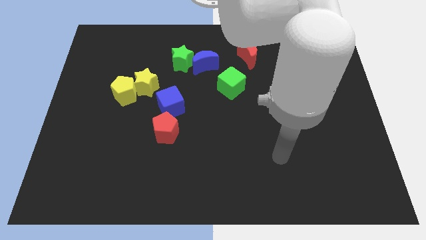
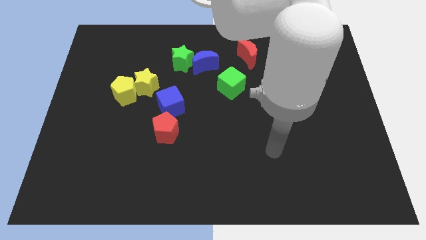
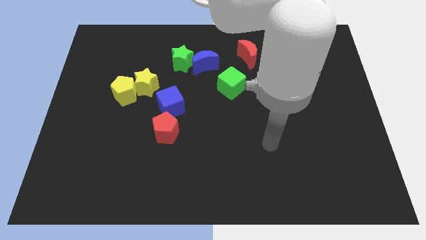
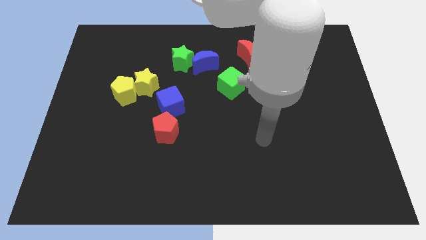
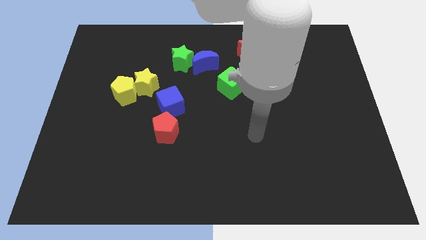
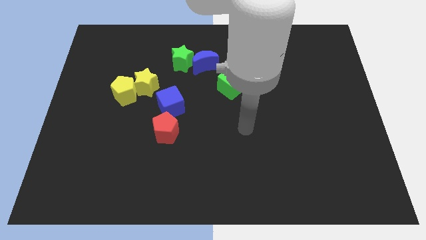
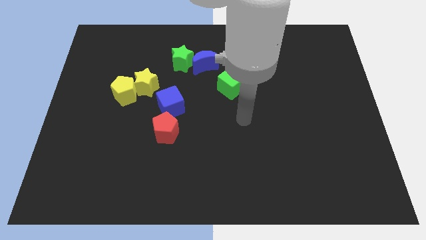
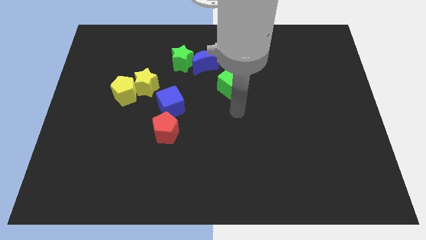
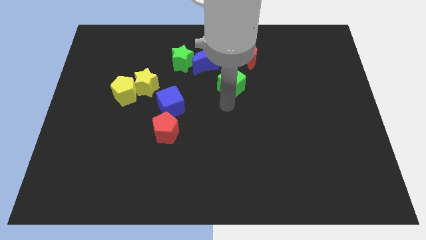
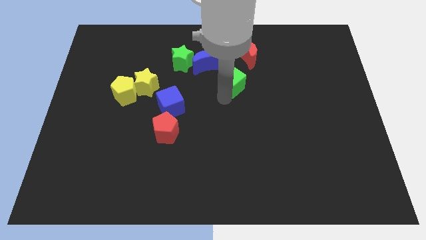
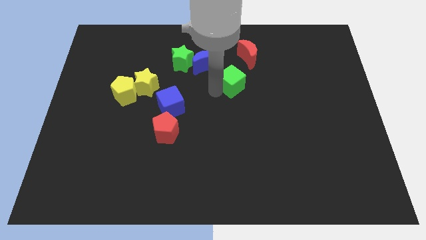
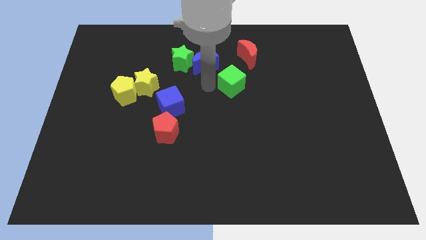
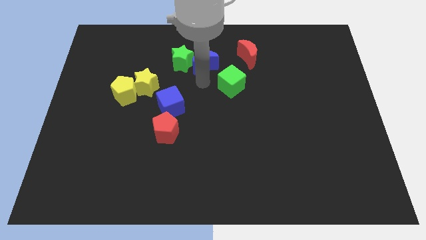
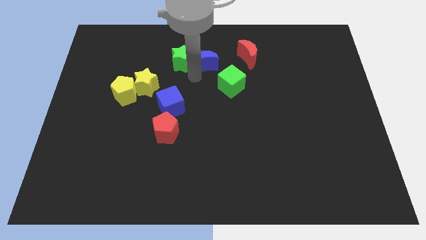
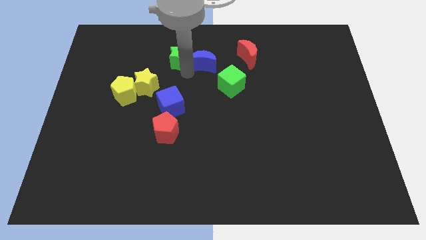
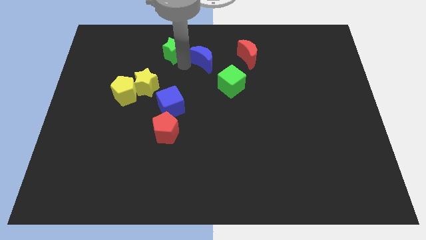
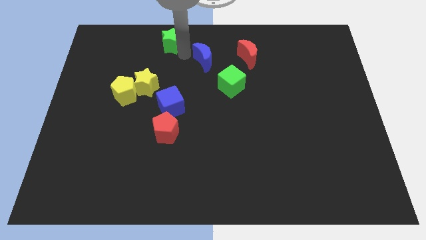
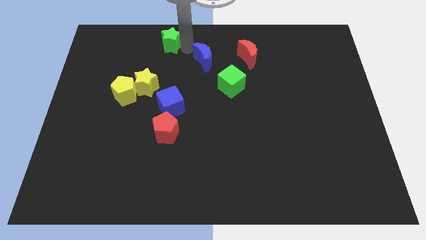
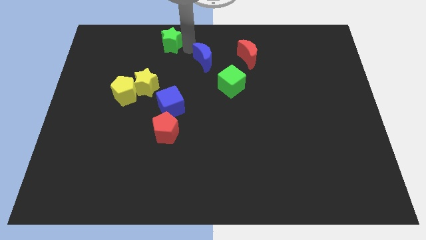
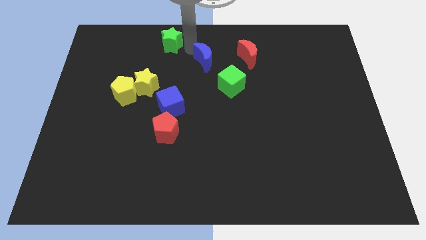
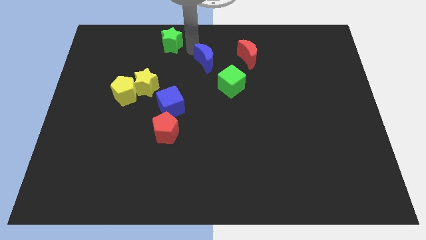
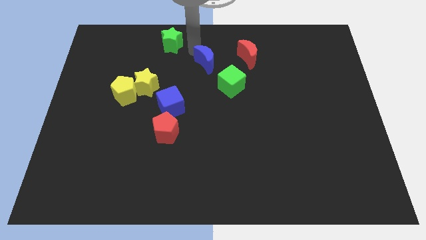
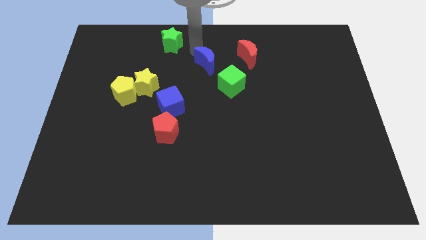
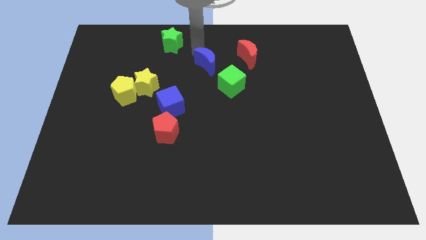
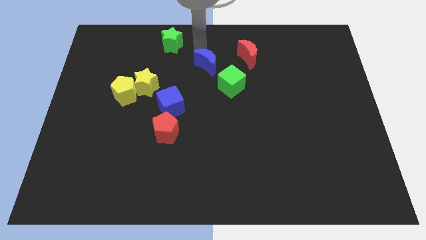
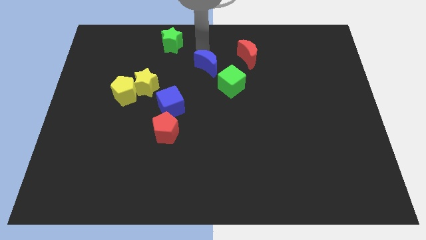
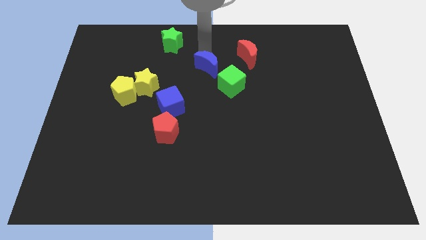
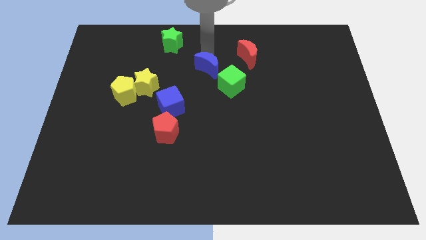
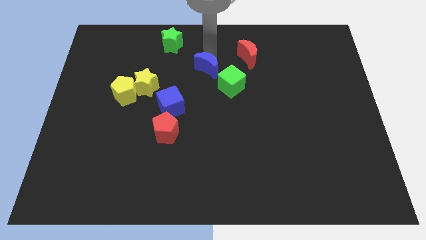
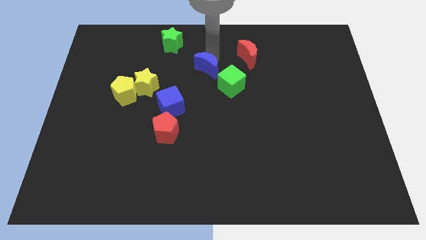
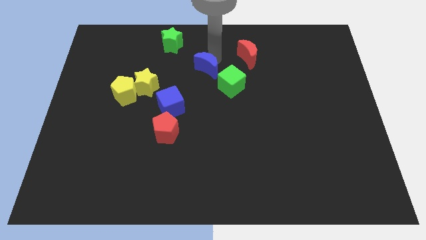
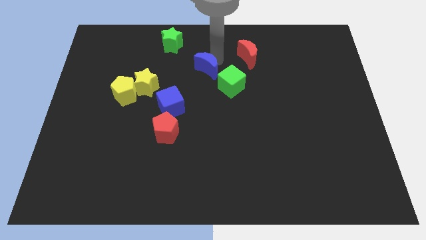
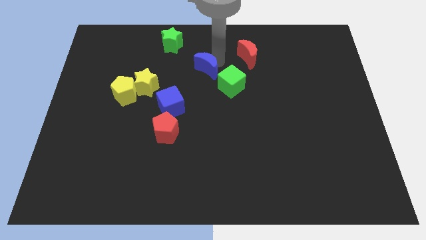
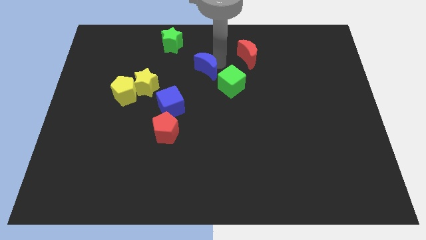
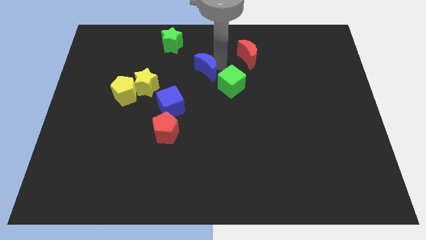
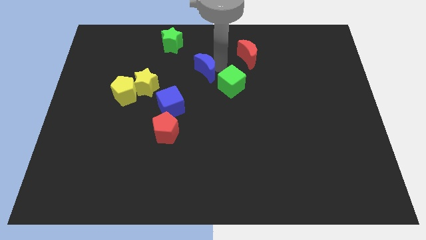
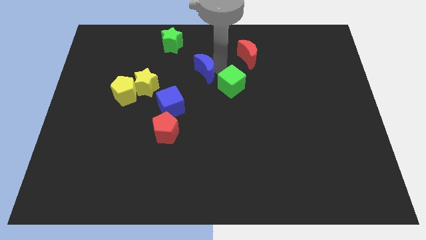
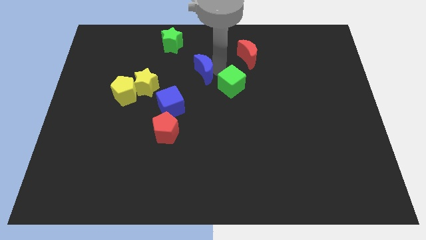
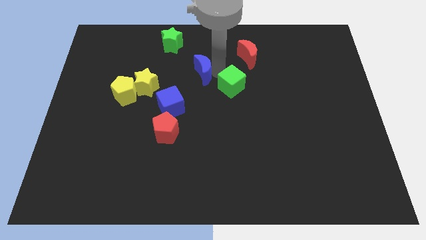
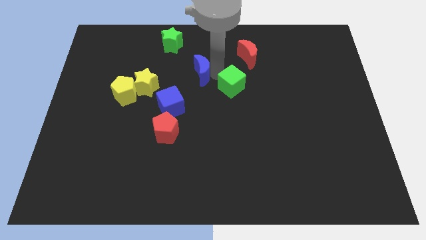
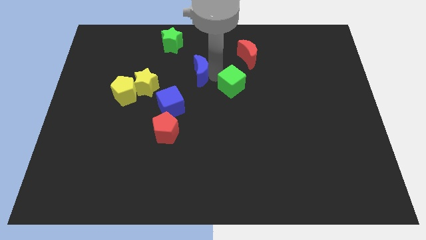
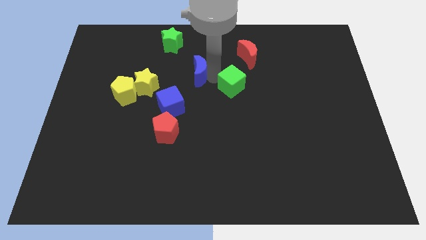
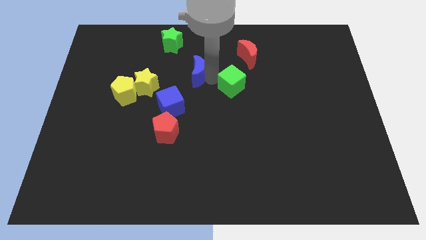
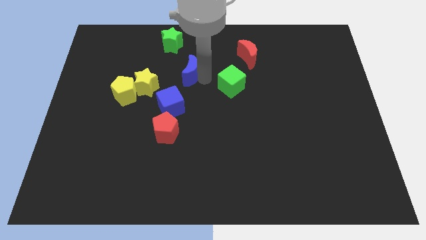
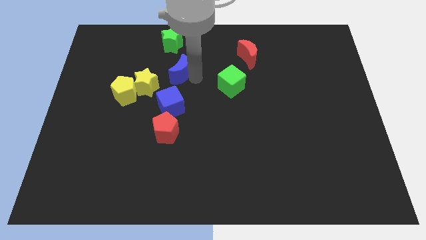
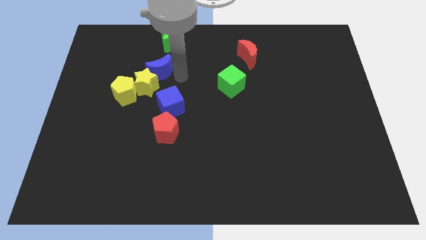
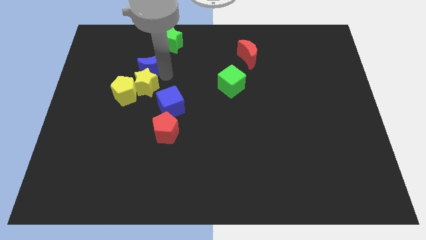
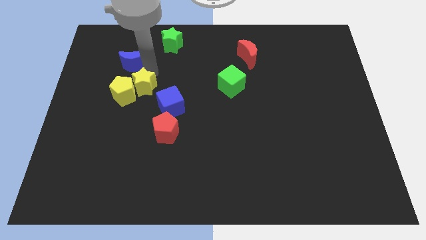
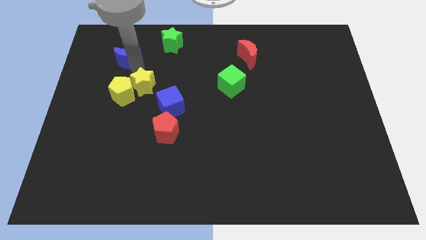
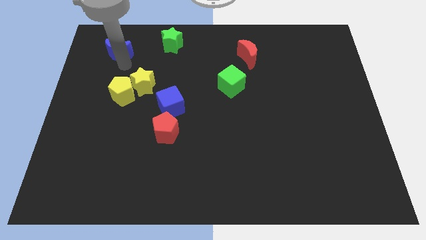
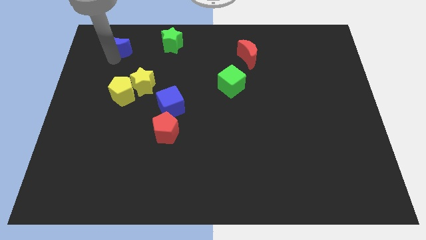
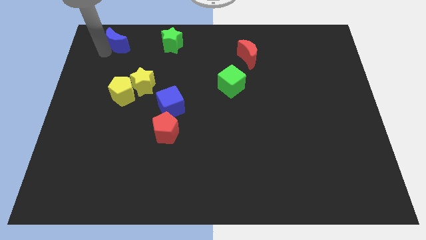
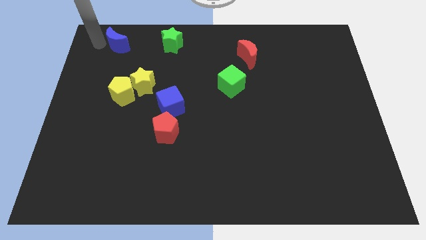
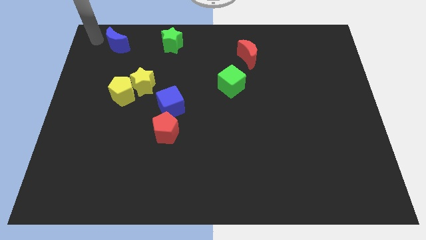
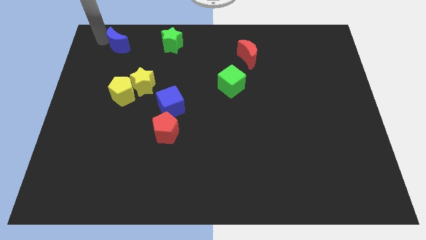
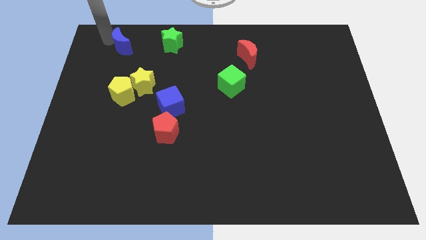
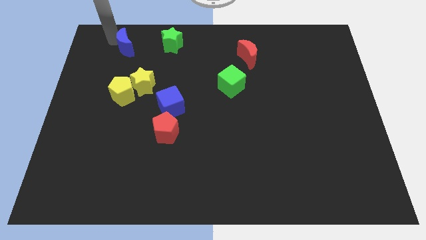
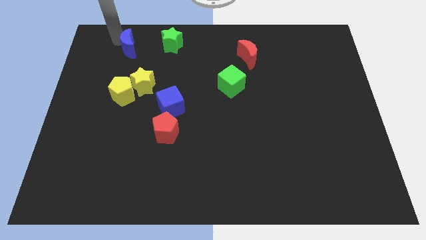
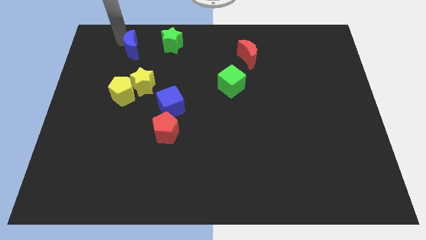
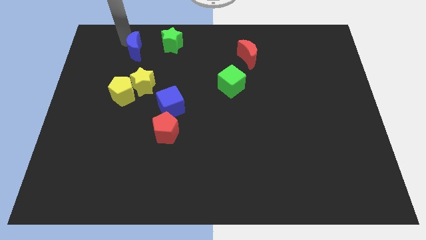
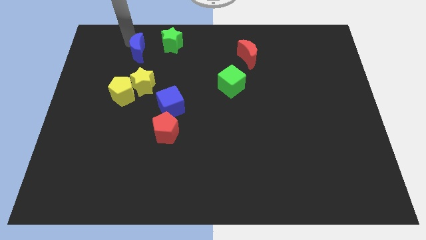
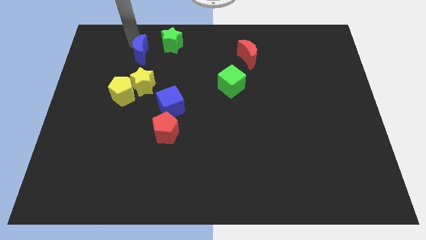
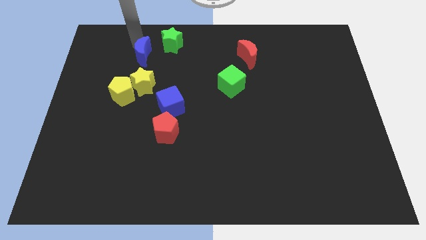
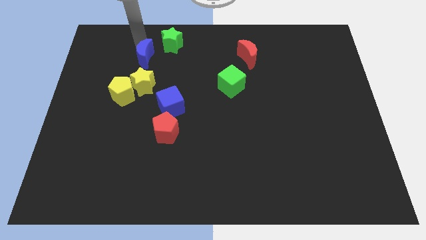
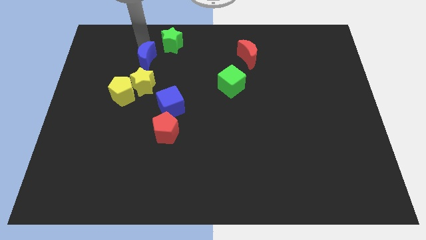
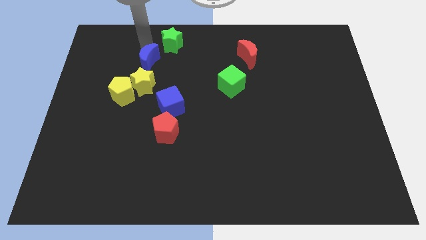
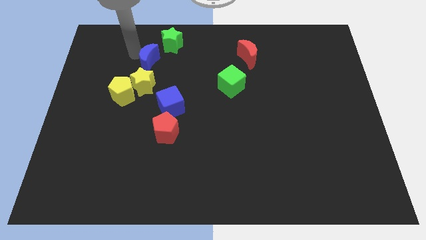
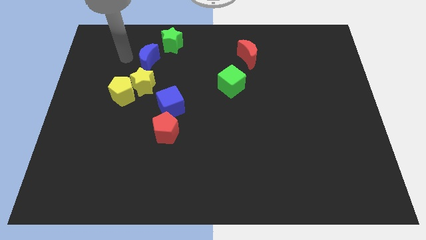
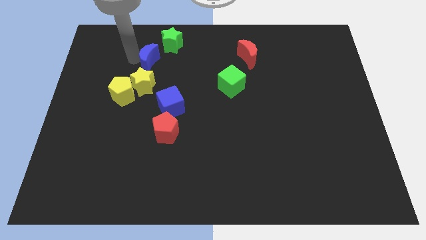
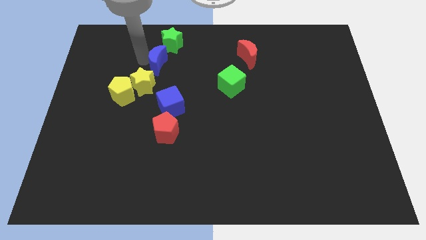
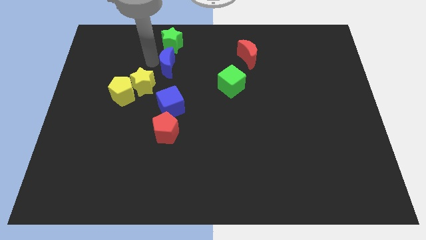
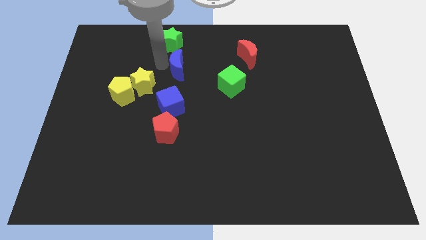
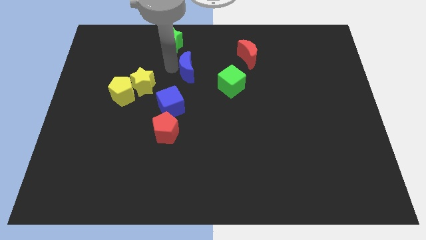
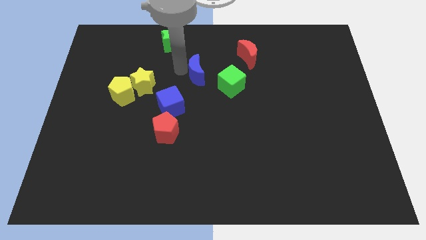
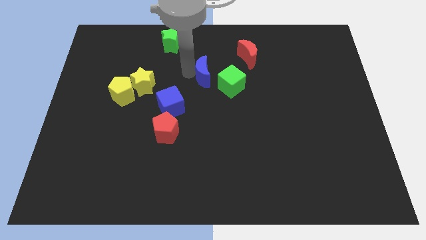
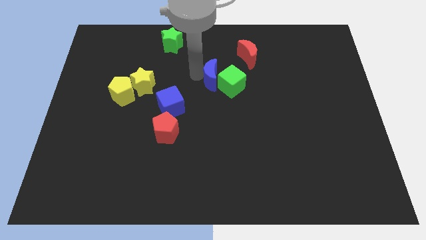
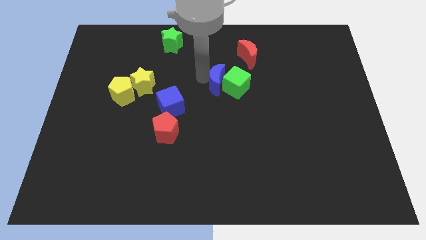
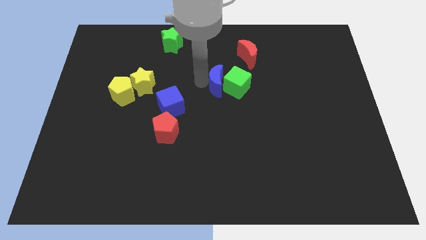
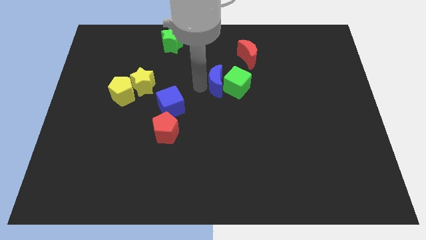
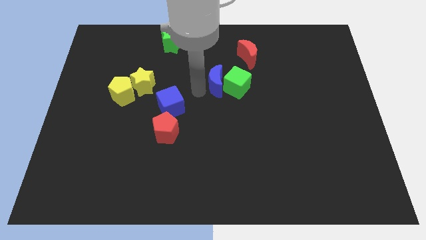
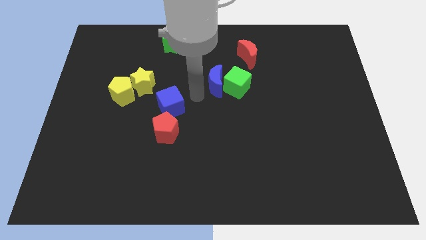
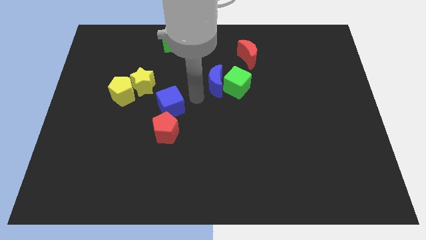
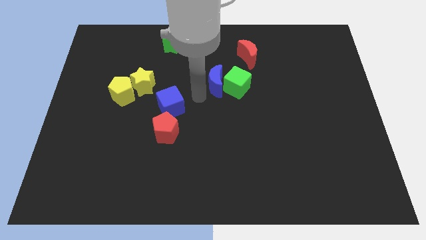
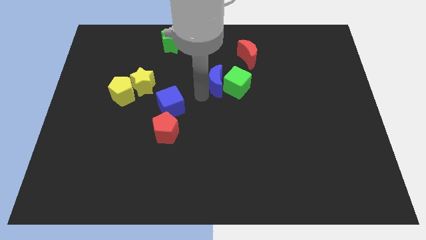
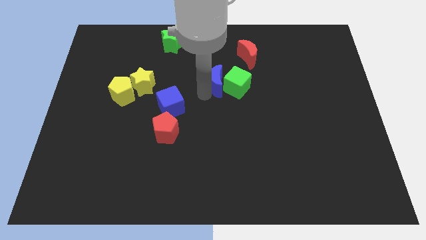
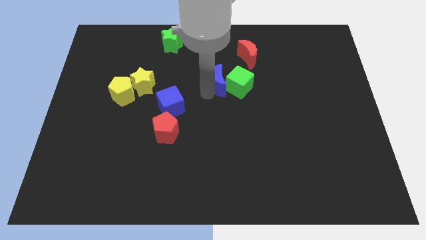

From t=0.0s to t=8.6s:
push the blue moon downwards and to the right a little bit
